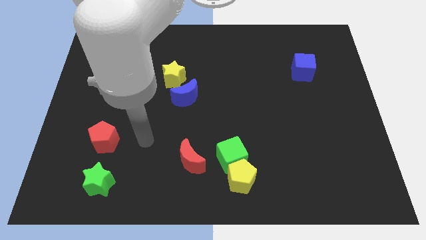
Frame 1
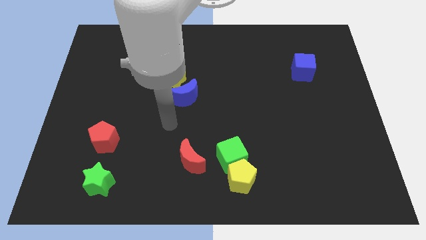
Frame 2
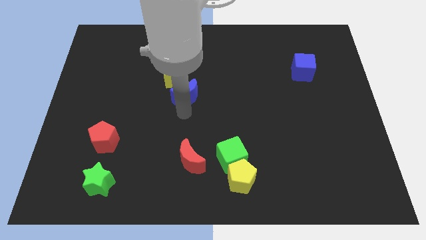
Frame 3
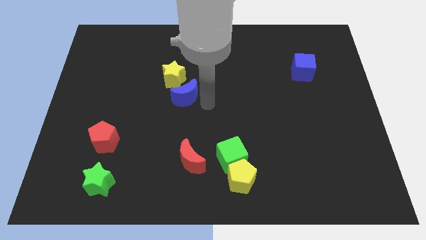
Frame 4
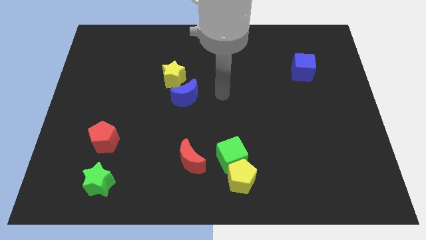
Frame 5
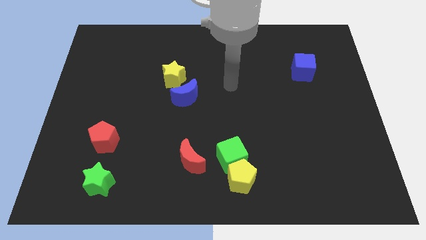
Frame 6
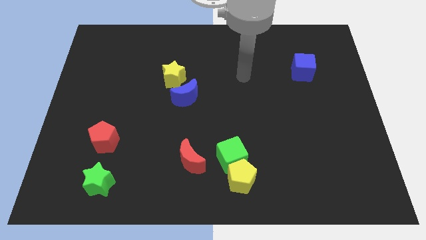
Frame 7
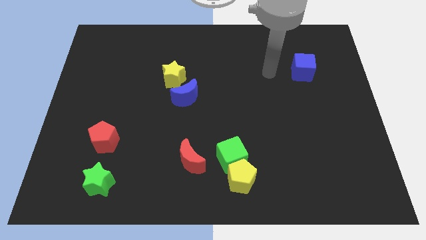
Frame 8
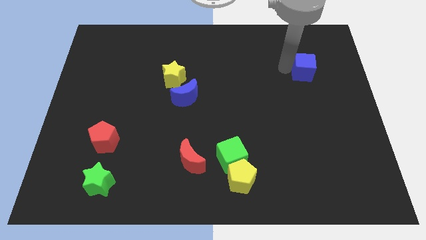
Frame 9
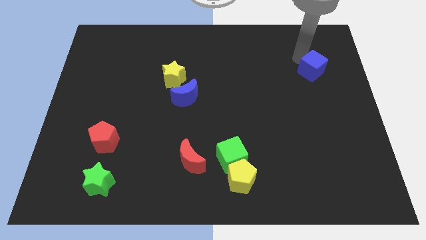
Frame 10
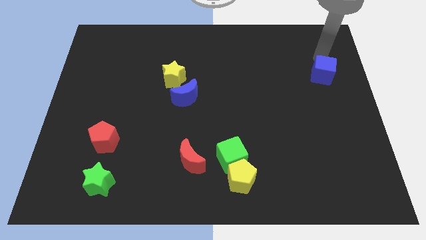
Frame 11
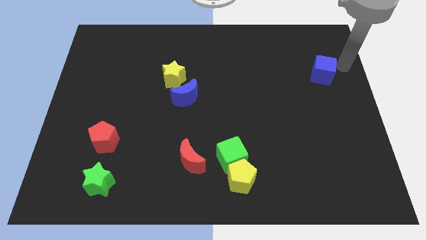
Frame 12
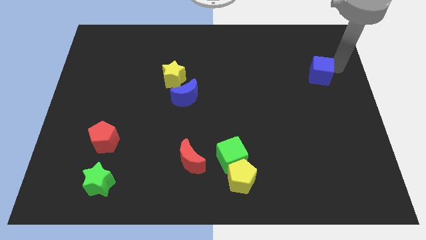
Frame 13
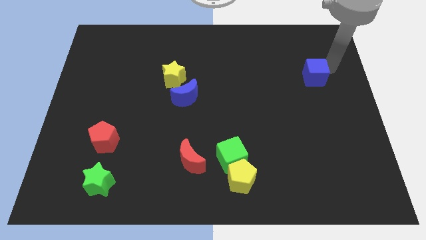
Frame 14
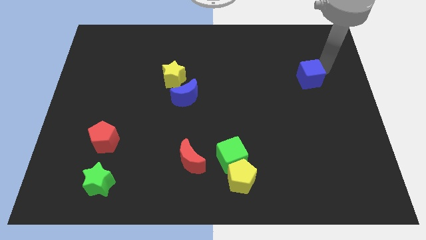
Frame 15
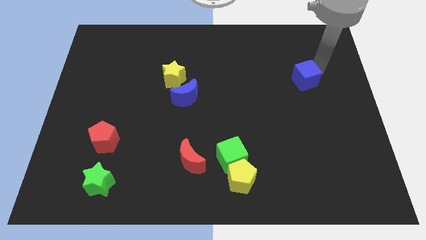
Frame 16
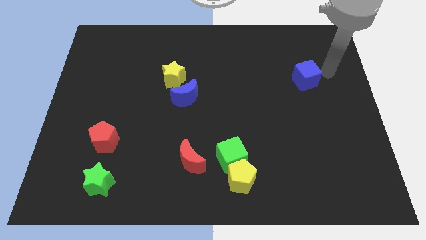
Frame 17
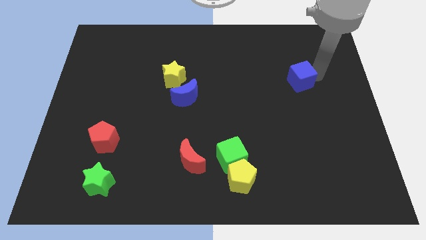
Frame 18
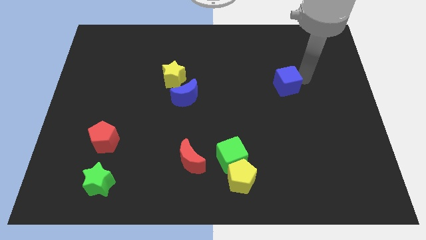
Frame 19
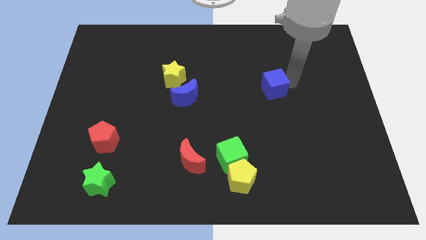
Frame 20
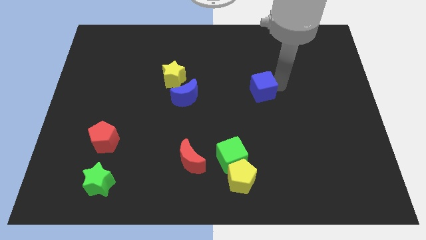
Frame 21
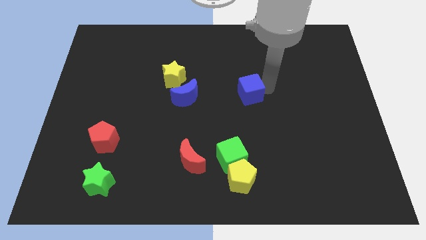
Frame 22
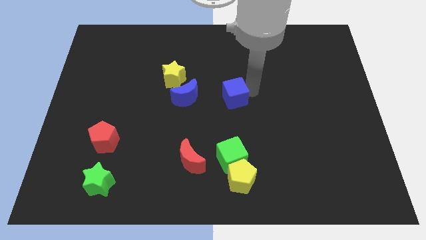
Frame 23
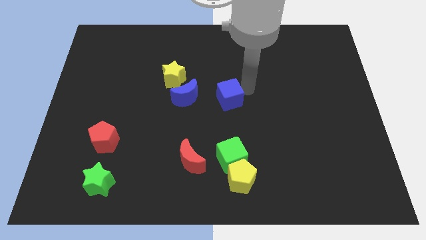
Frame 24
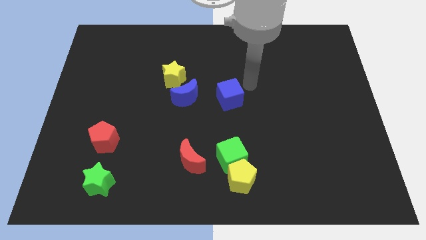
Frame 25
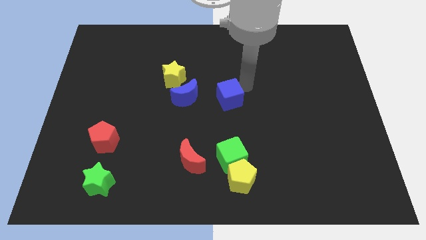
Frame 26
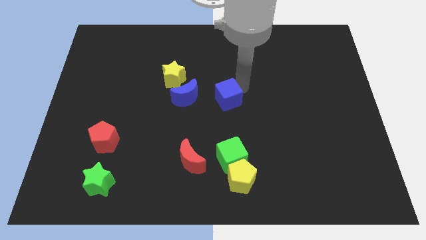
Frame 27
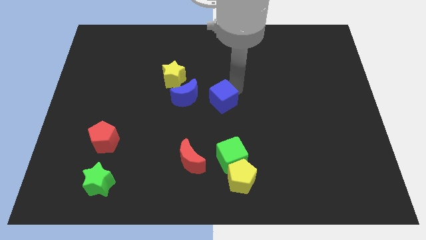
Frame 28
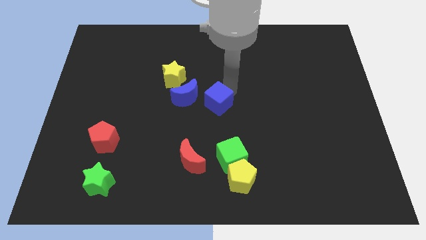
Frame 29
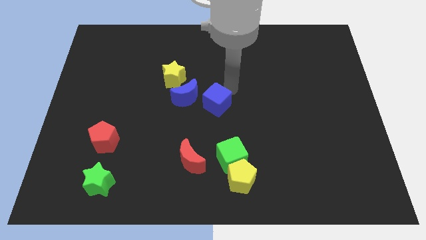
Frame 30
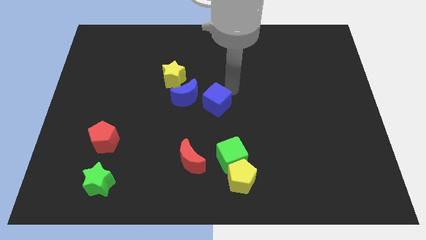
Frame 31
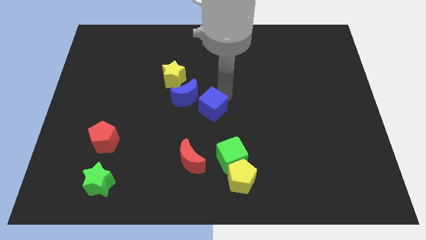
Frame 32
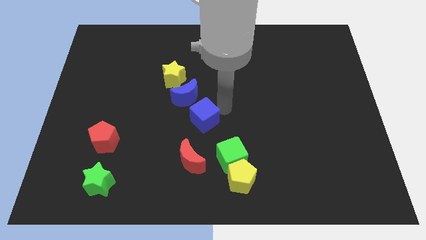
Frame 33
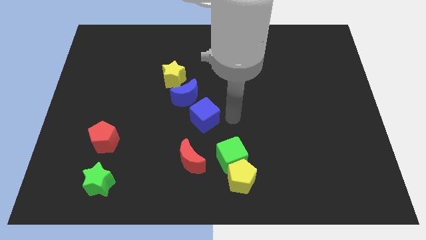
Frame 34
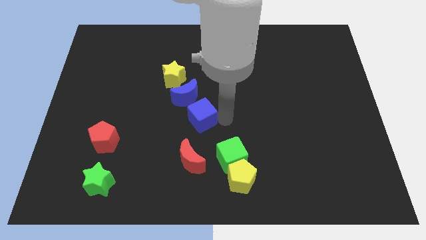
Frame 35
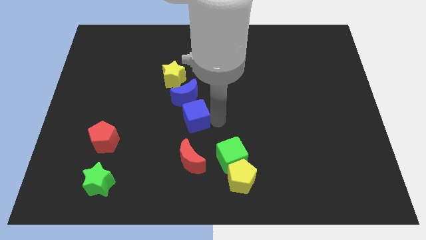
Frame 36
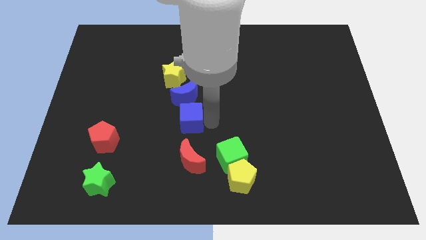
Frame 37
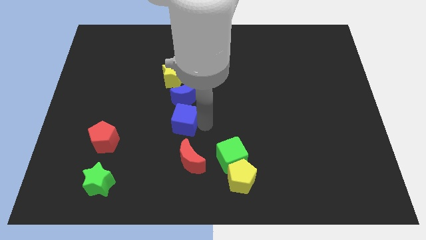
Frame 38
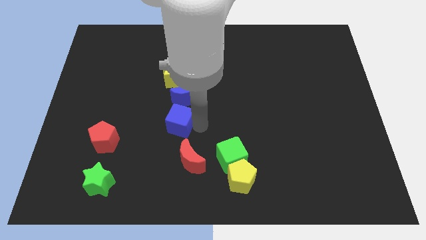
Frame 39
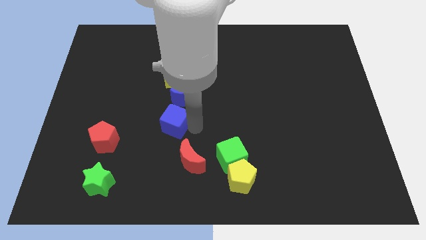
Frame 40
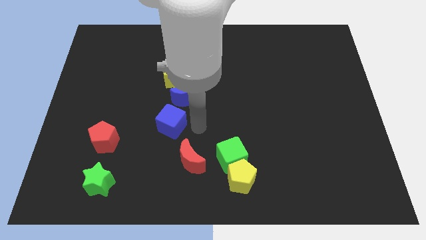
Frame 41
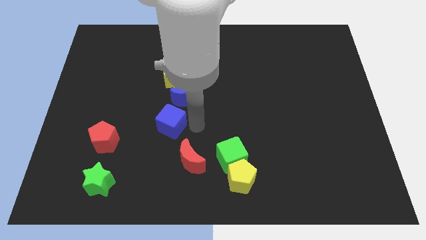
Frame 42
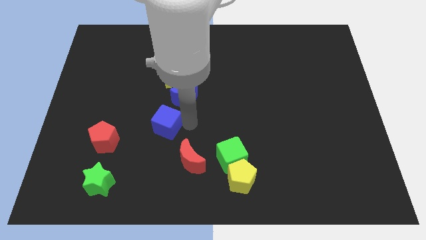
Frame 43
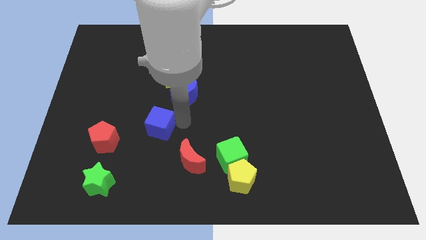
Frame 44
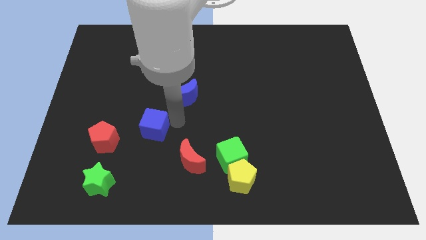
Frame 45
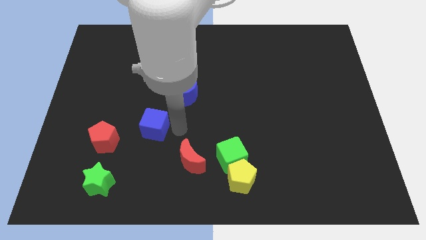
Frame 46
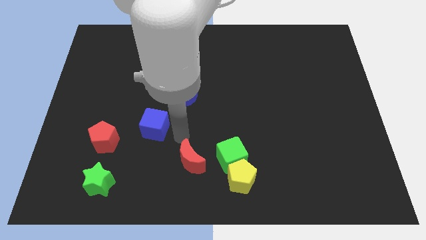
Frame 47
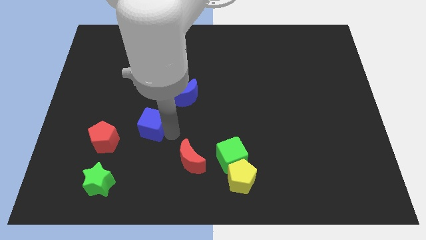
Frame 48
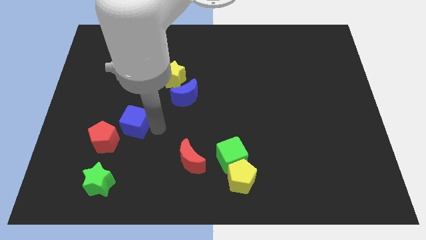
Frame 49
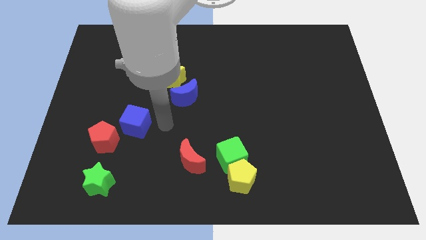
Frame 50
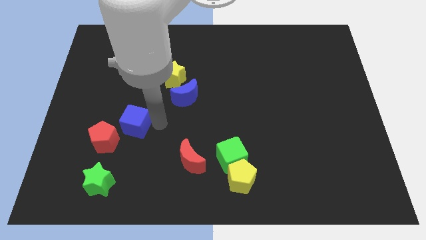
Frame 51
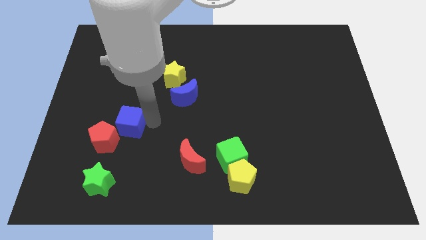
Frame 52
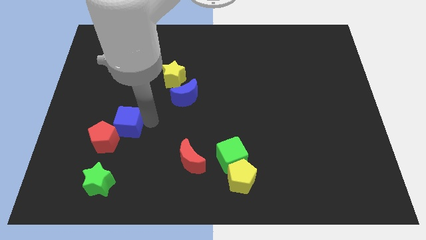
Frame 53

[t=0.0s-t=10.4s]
push the blue cube to the top of the green star

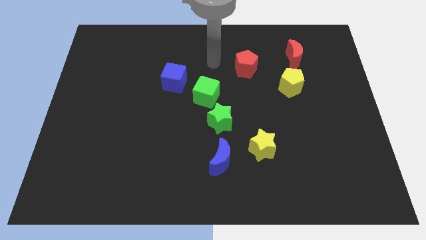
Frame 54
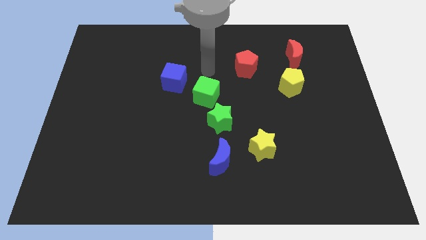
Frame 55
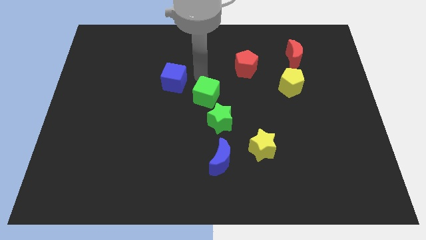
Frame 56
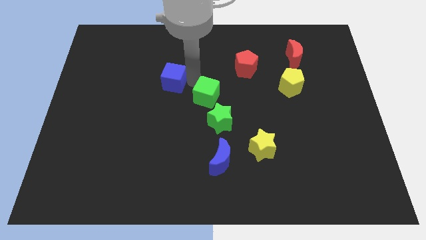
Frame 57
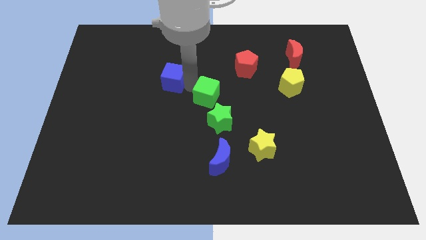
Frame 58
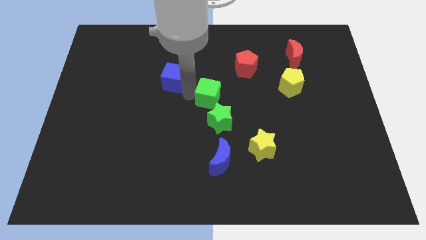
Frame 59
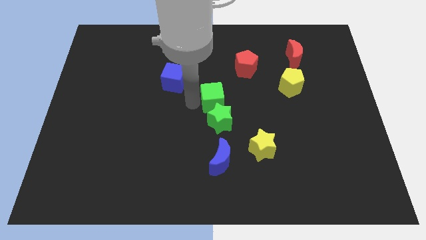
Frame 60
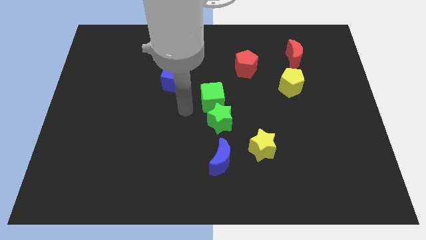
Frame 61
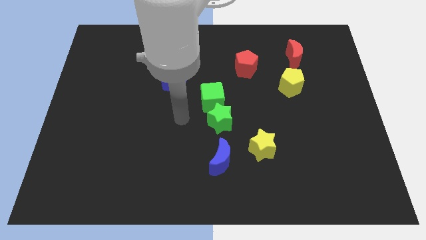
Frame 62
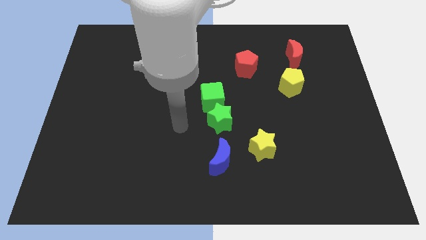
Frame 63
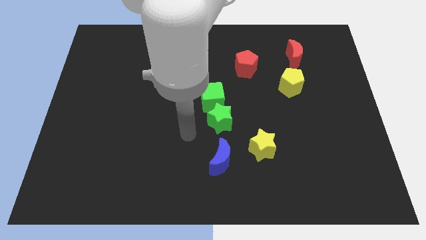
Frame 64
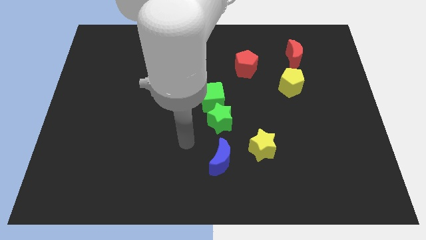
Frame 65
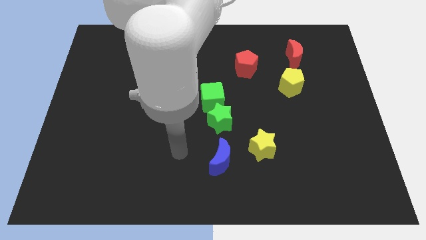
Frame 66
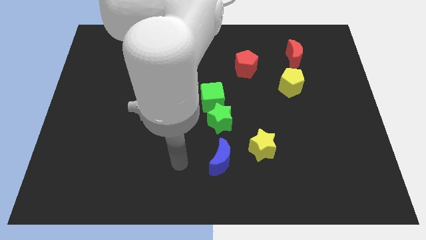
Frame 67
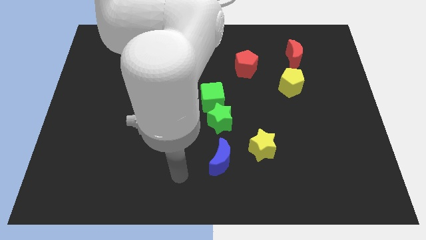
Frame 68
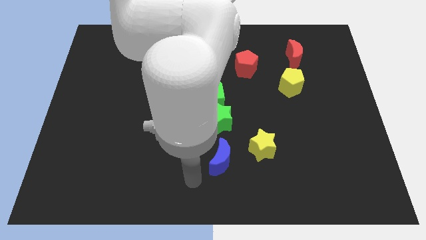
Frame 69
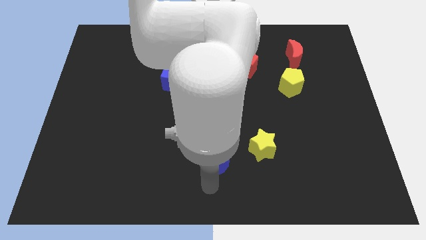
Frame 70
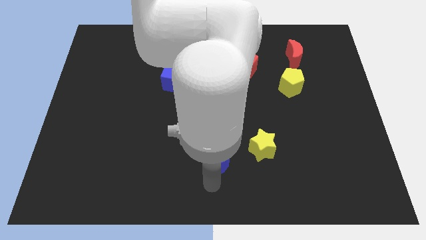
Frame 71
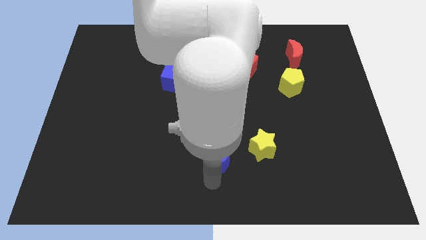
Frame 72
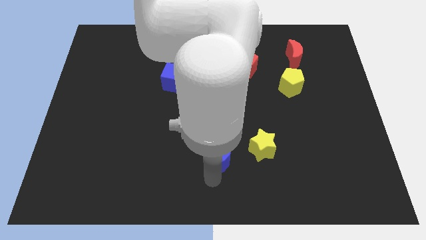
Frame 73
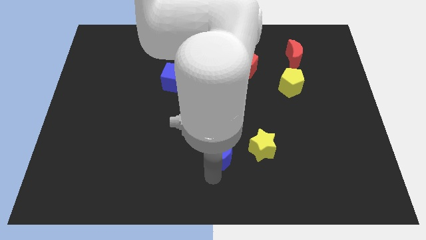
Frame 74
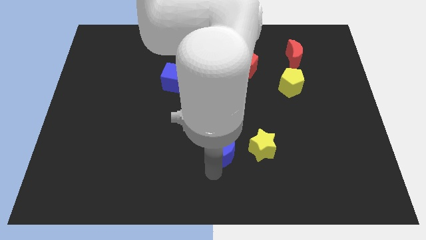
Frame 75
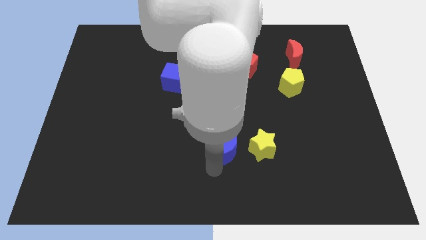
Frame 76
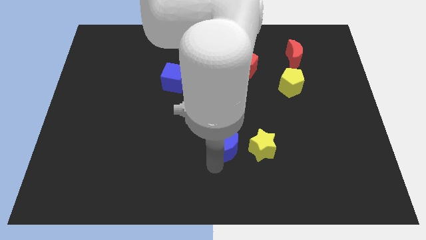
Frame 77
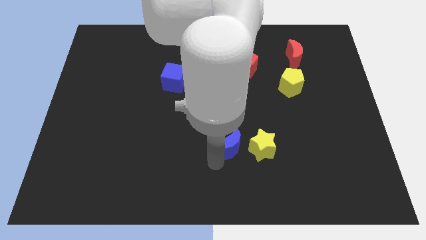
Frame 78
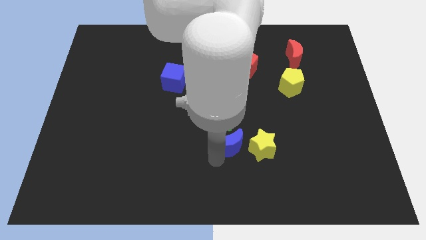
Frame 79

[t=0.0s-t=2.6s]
move the blue moon diagonally up and to the left of the yellow star

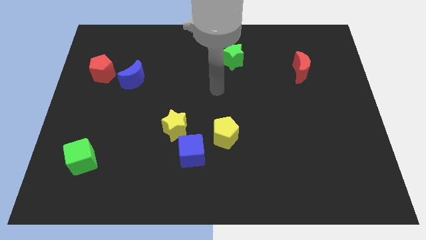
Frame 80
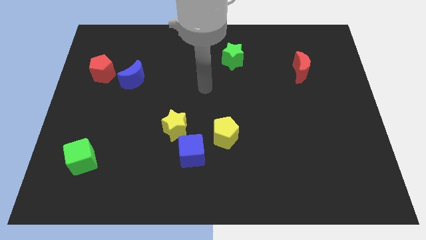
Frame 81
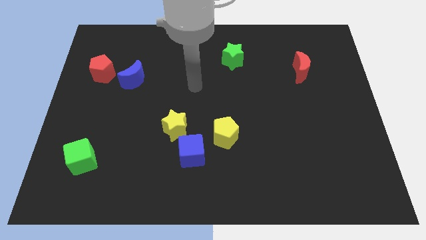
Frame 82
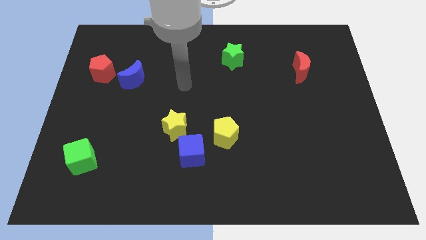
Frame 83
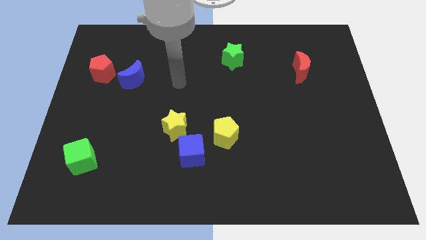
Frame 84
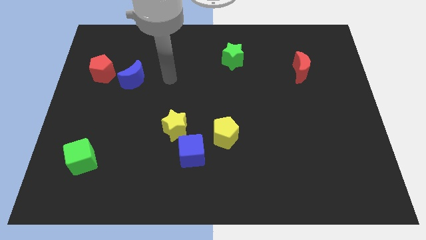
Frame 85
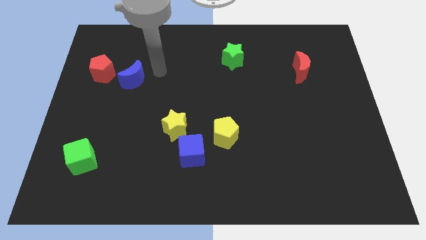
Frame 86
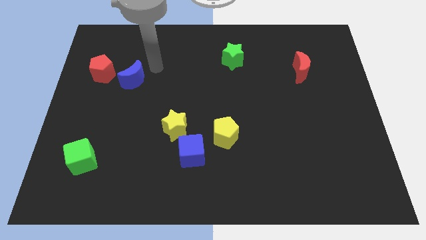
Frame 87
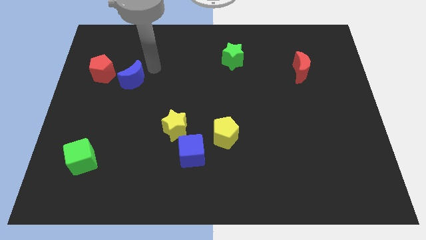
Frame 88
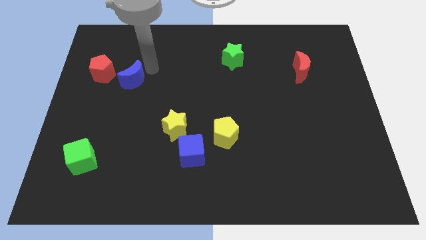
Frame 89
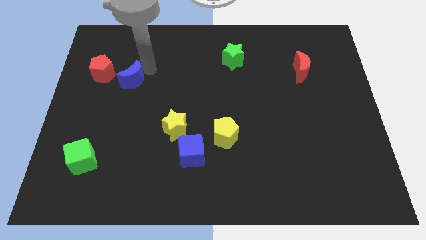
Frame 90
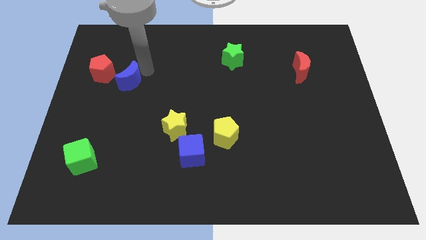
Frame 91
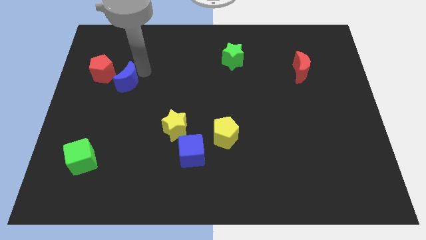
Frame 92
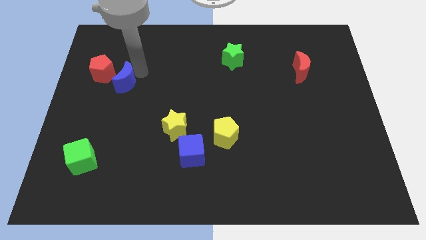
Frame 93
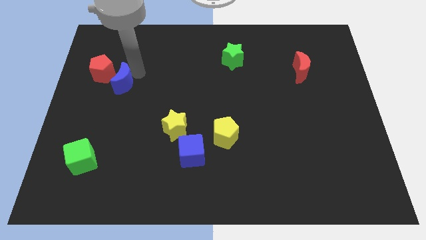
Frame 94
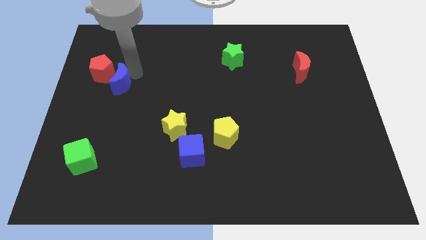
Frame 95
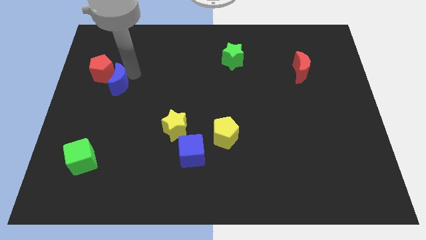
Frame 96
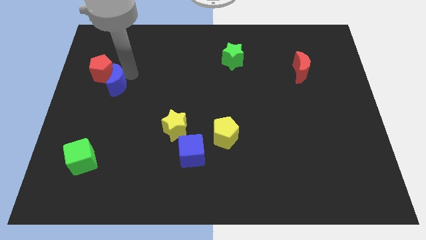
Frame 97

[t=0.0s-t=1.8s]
move the blue moon to the bottom of the red pentagon
